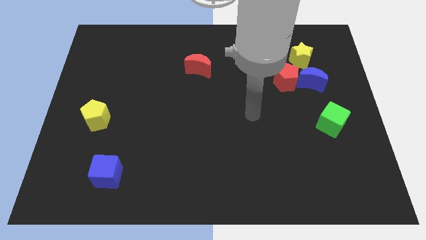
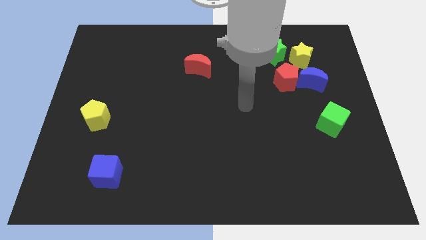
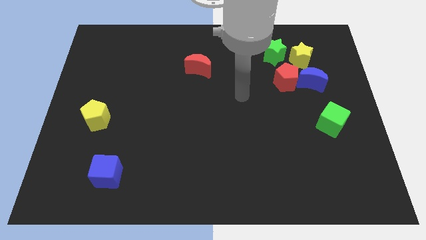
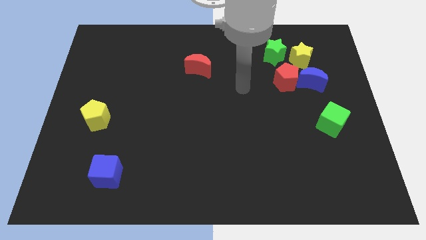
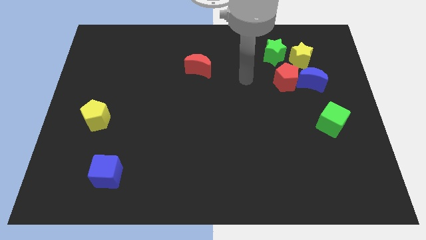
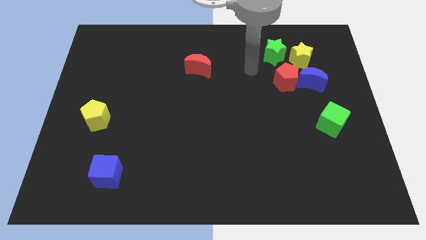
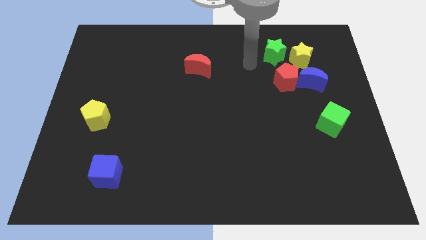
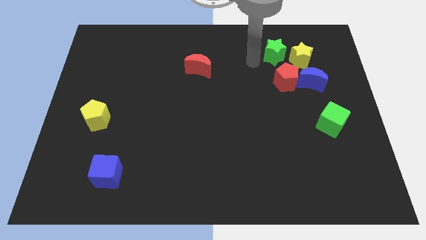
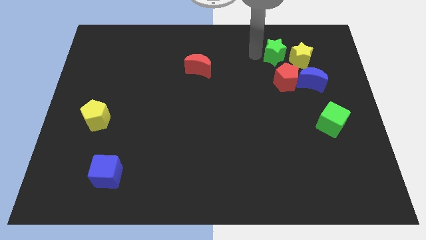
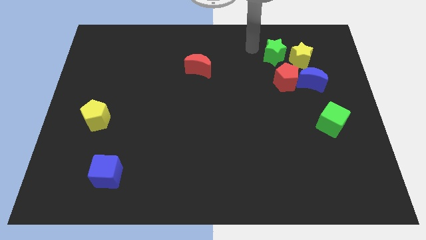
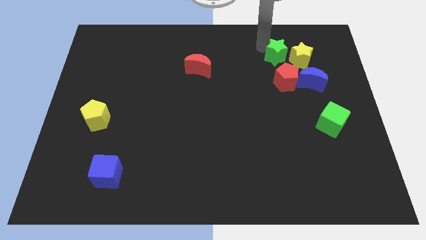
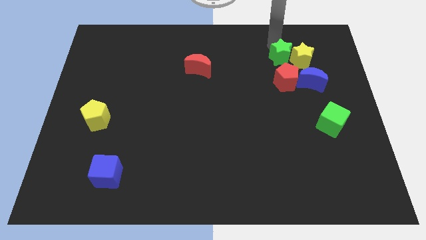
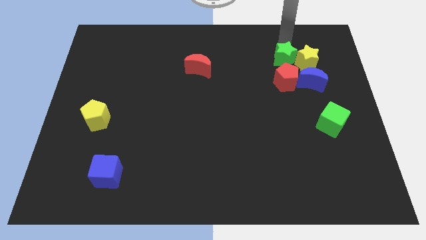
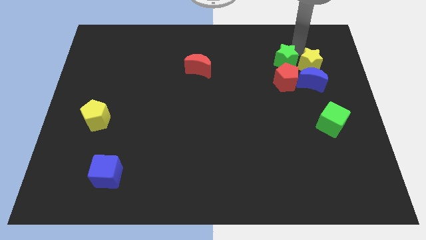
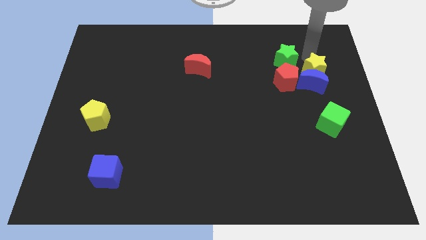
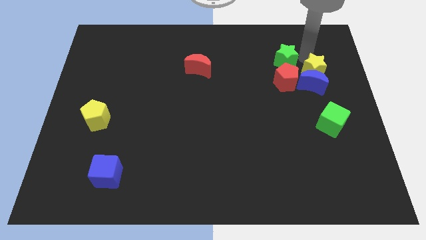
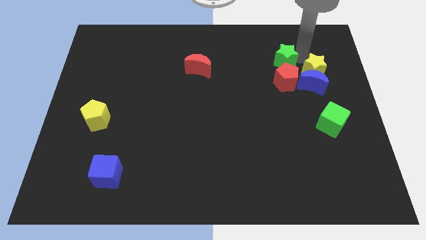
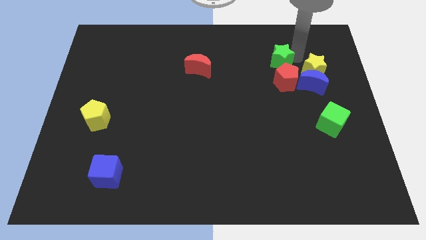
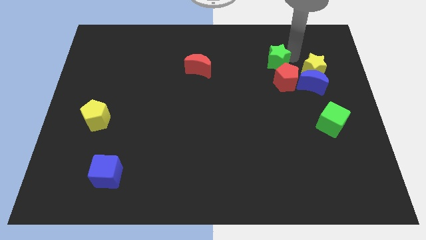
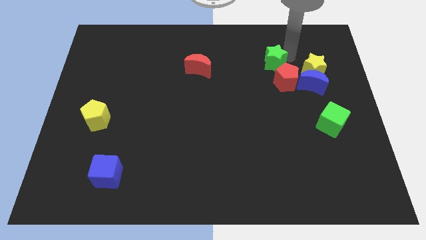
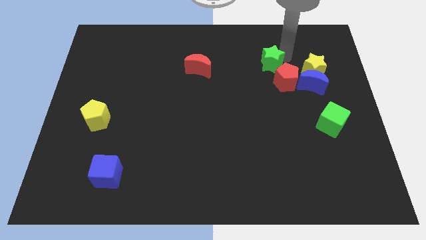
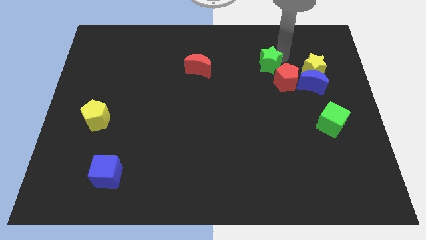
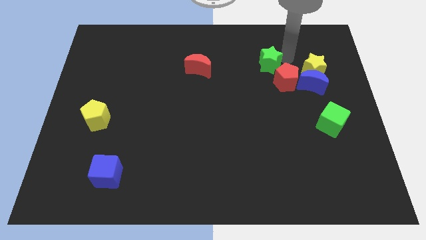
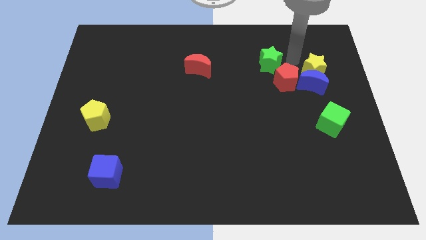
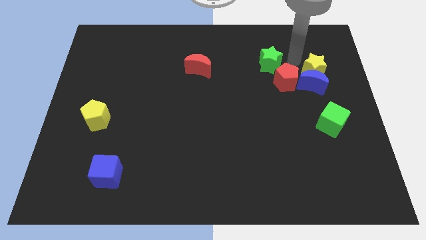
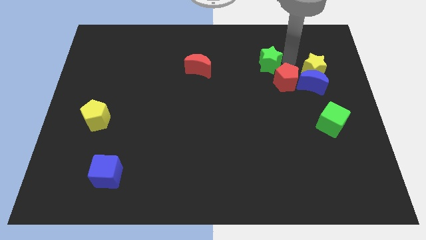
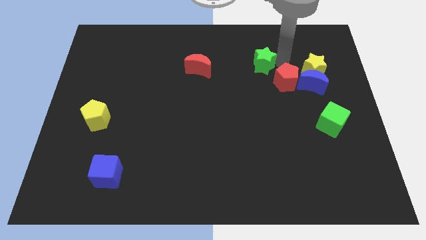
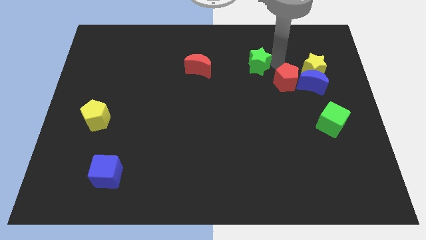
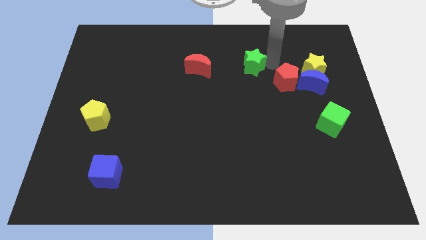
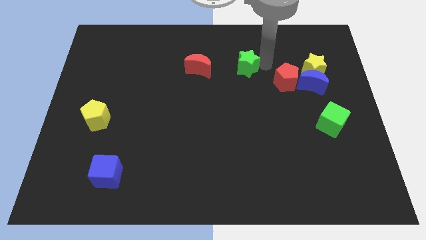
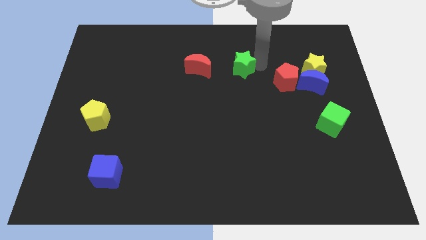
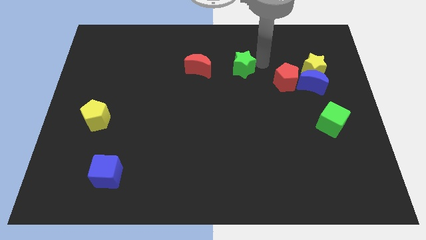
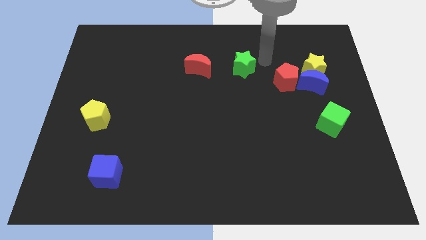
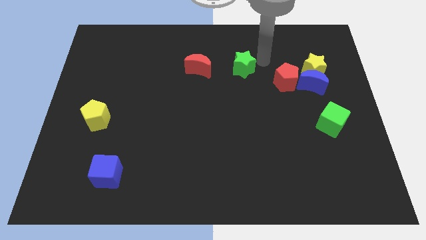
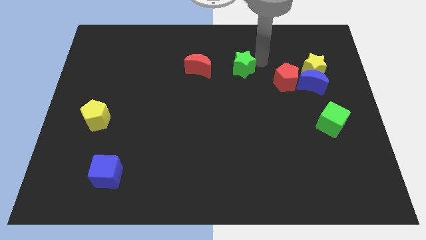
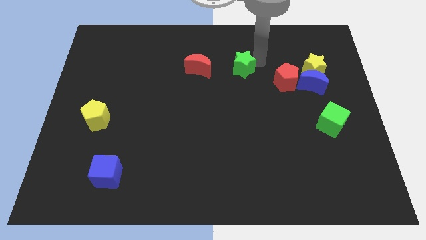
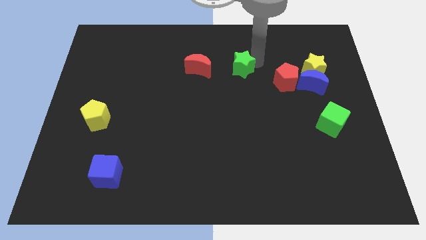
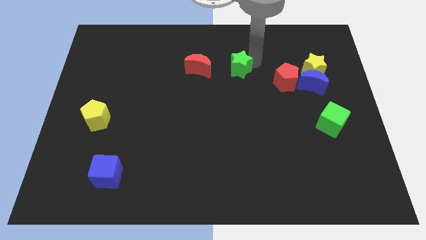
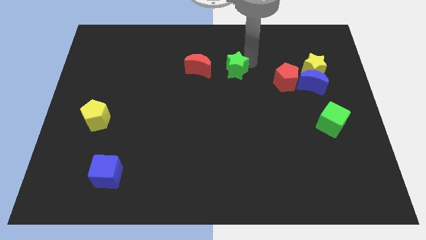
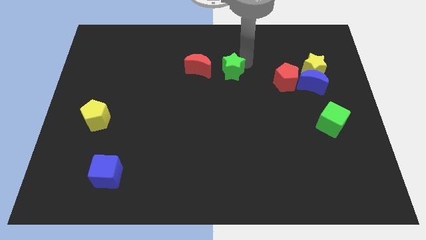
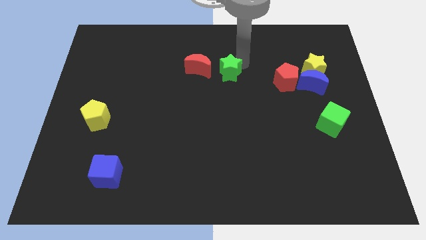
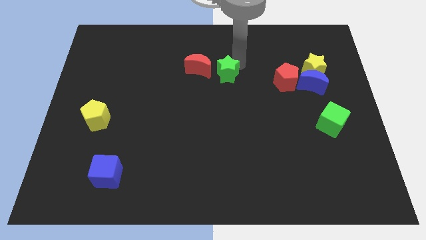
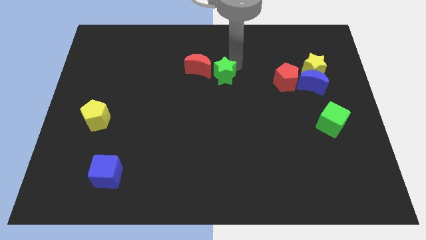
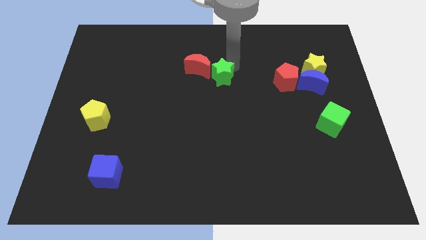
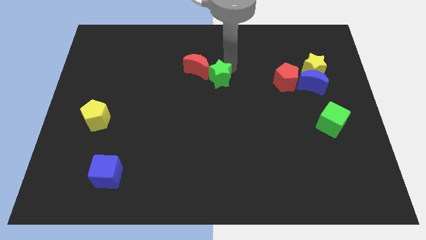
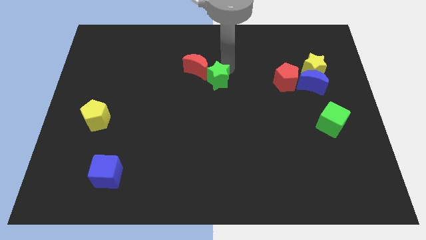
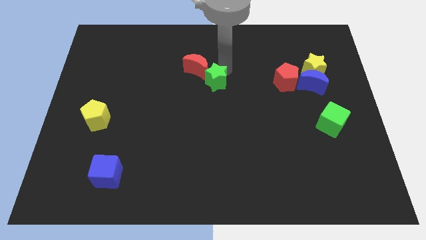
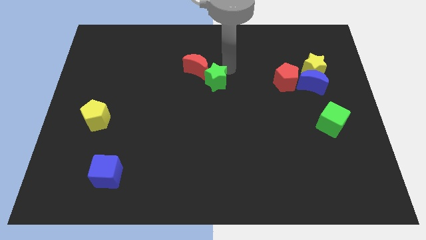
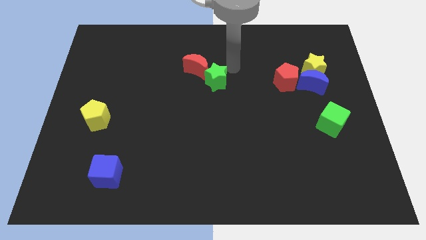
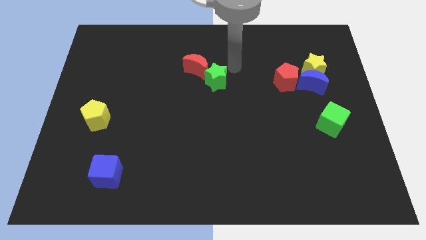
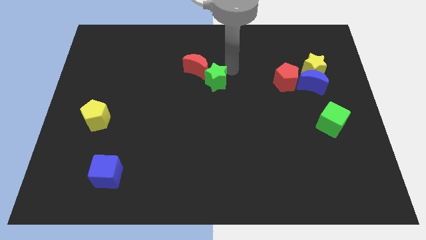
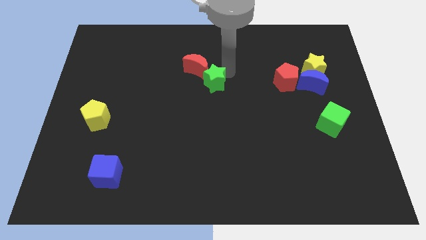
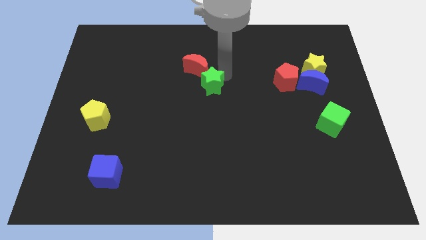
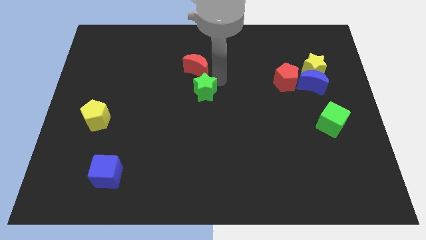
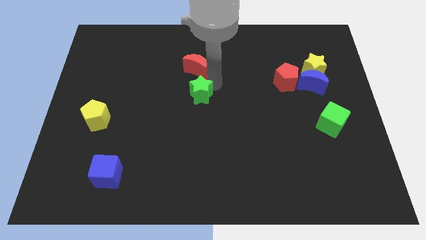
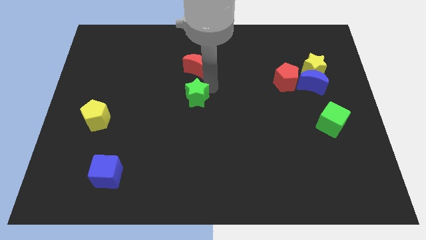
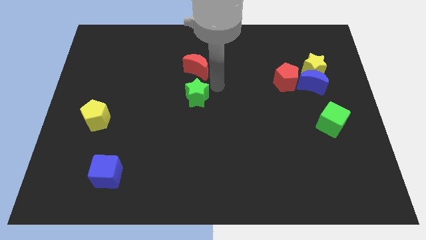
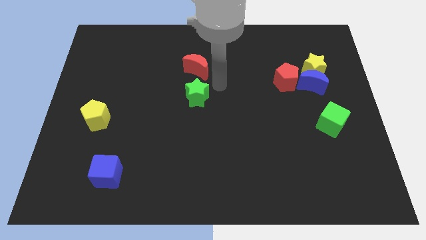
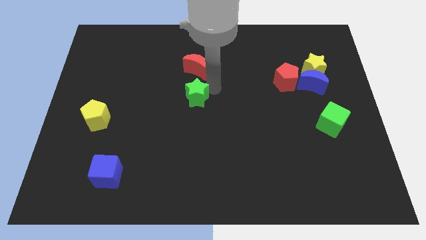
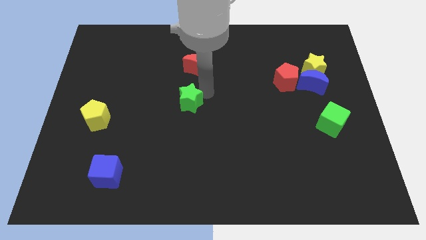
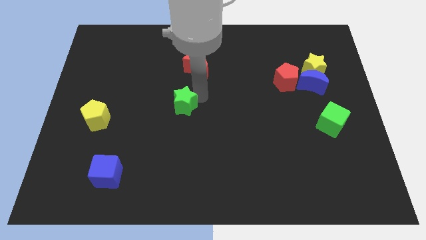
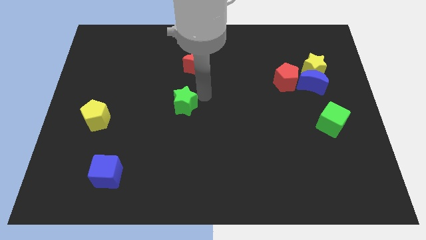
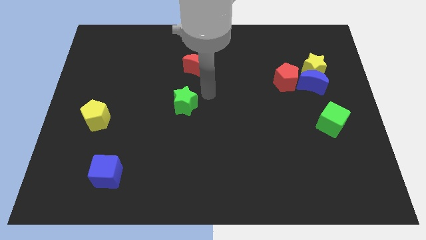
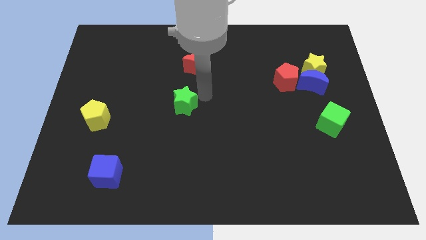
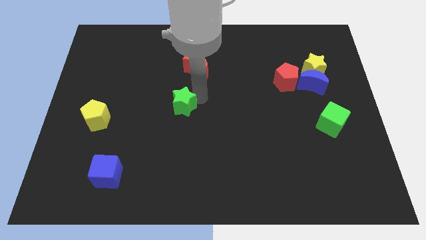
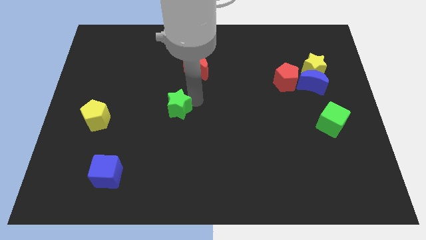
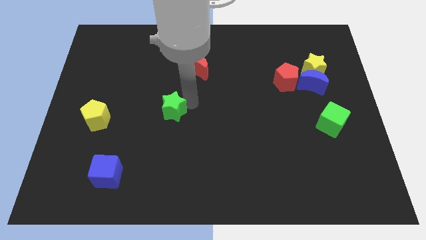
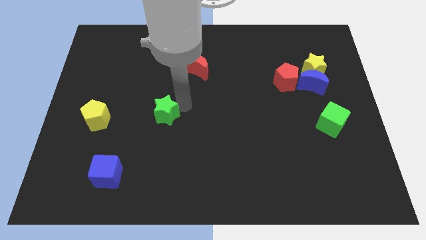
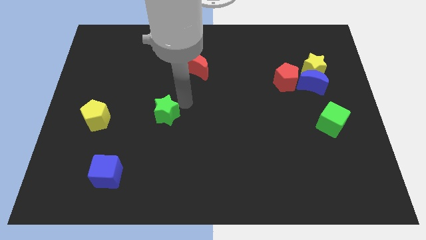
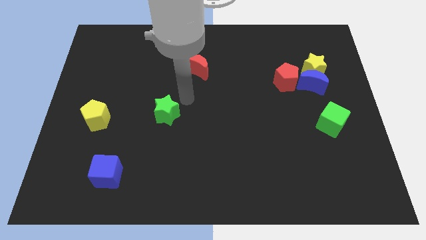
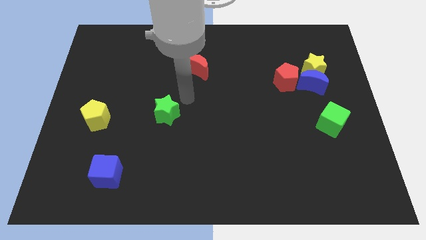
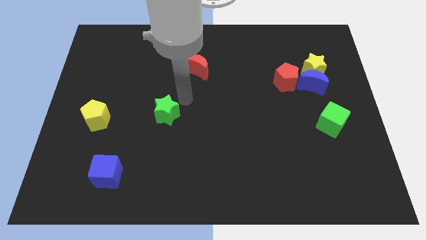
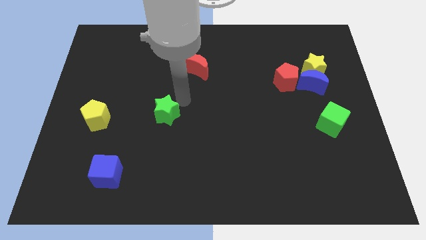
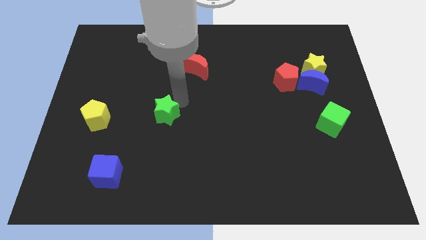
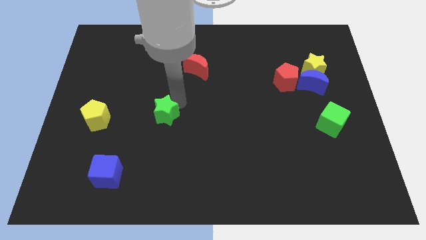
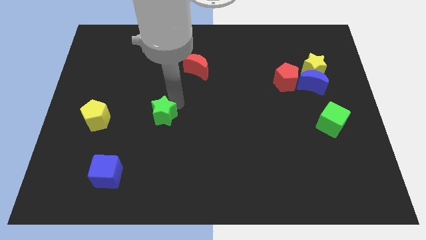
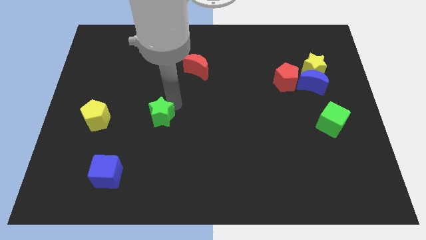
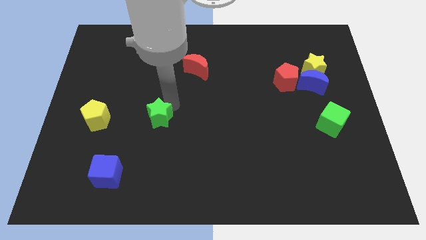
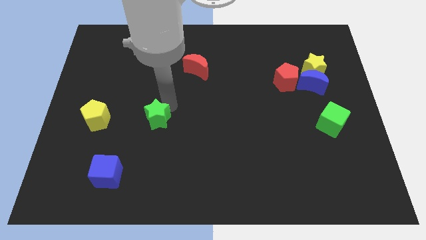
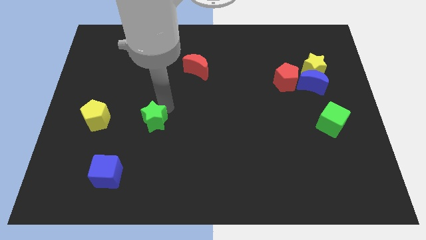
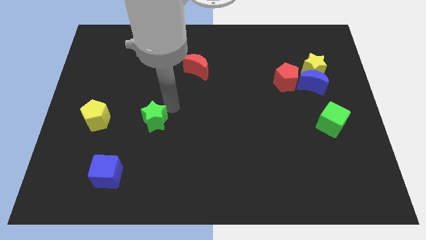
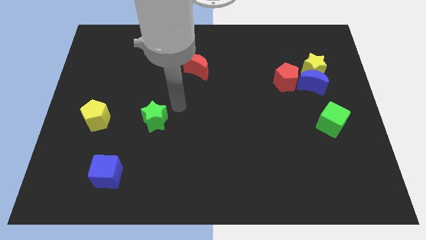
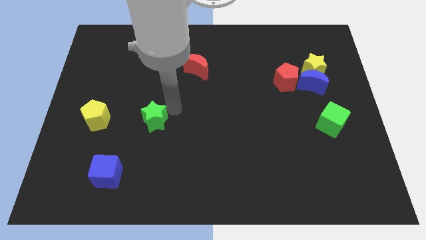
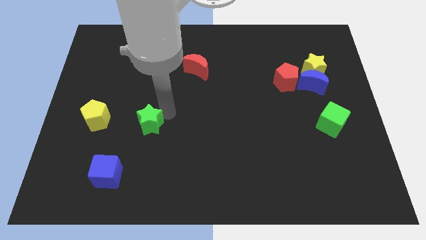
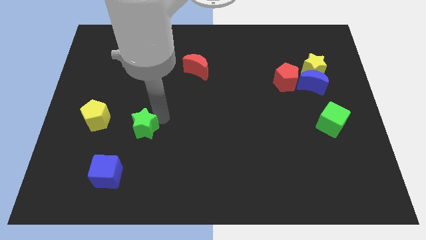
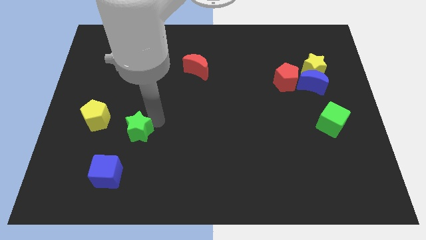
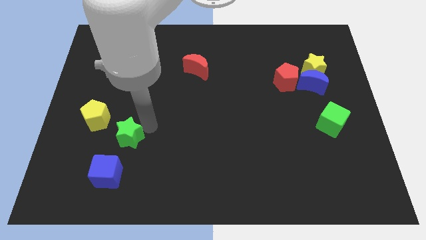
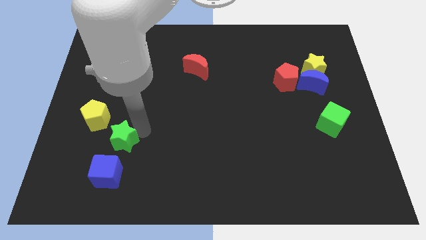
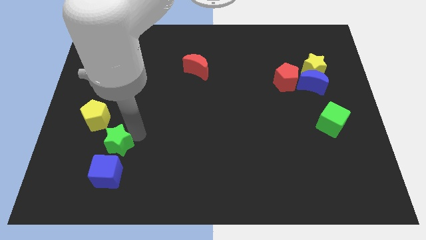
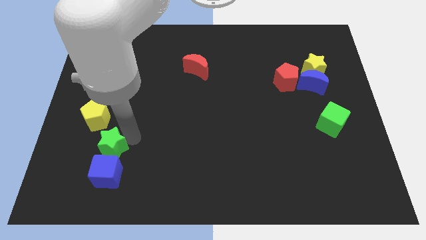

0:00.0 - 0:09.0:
slide the green star diagonally up and to the left of the blue cube
